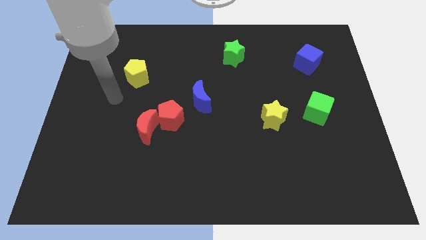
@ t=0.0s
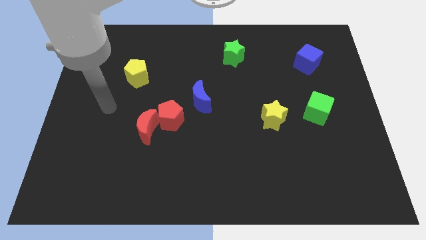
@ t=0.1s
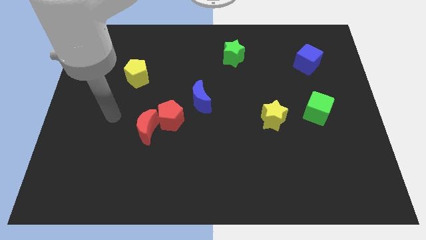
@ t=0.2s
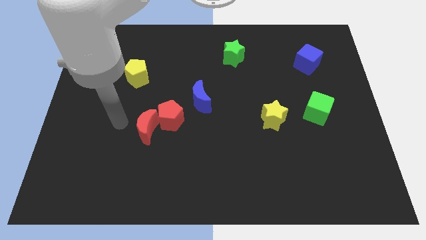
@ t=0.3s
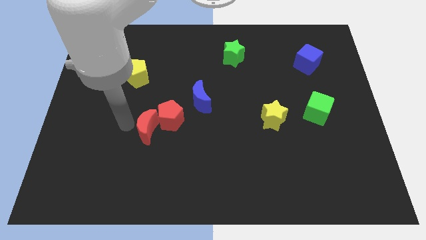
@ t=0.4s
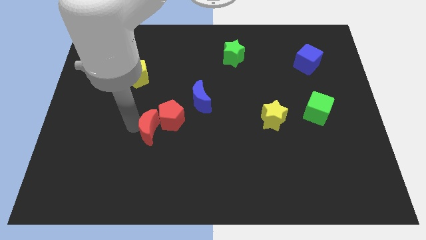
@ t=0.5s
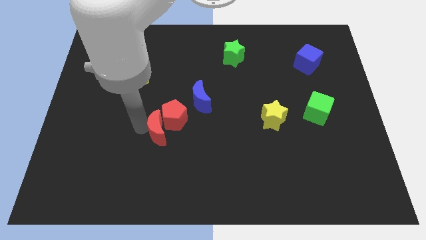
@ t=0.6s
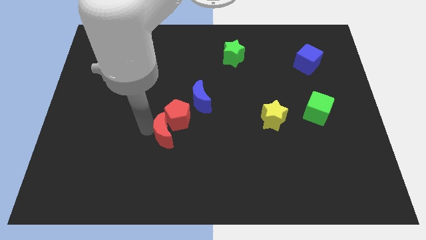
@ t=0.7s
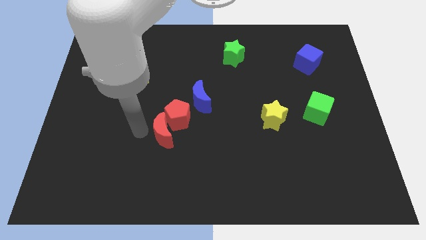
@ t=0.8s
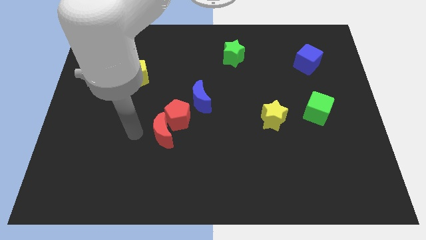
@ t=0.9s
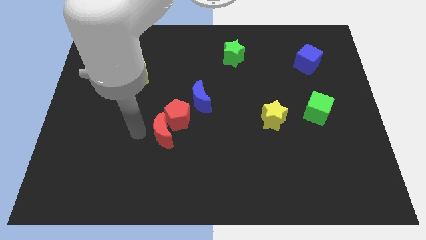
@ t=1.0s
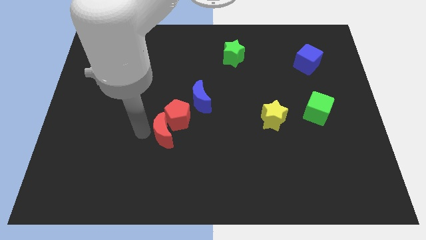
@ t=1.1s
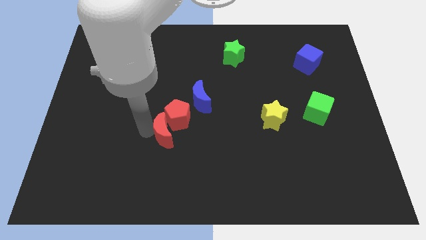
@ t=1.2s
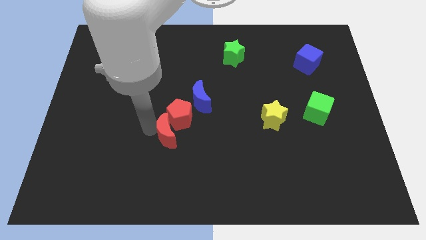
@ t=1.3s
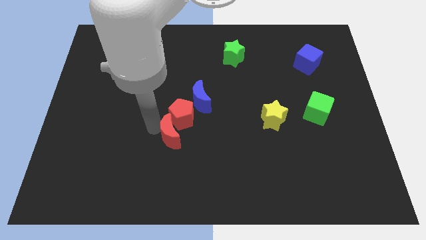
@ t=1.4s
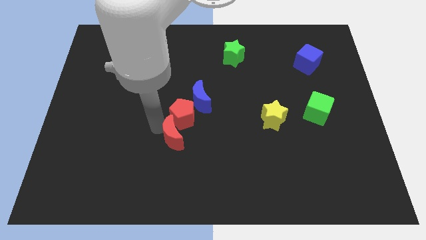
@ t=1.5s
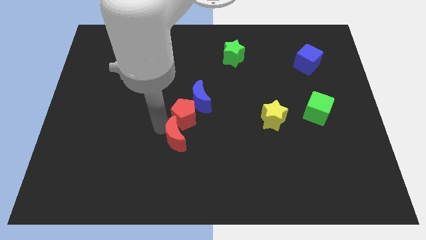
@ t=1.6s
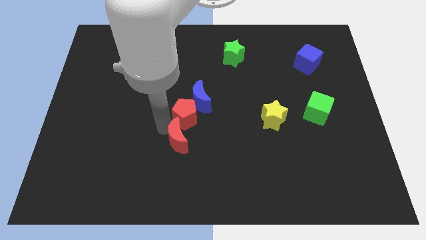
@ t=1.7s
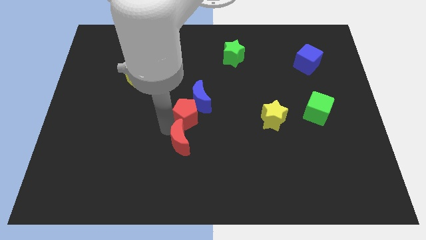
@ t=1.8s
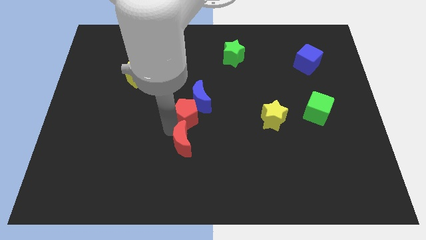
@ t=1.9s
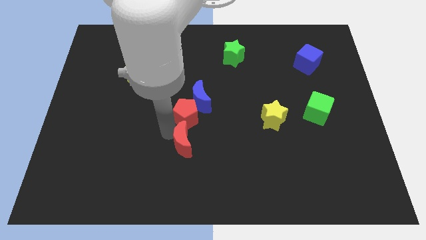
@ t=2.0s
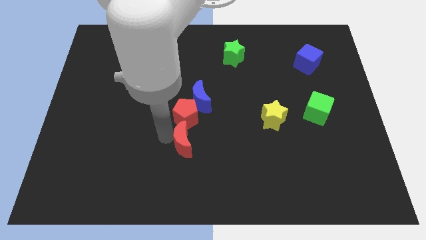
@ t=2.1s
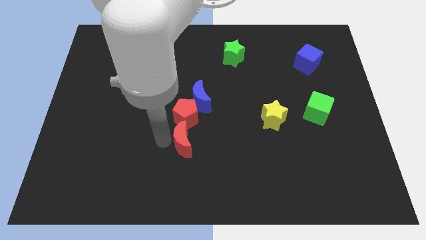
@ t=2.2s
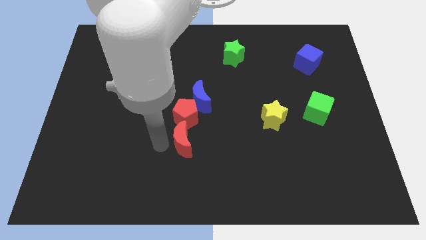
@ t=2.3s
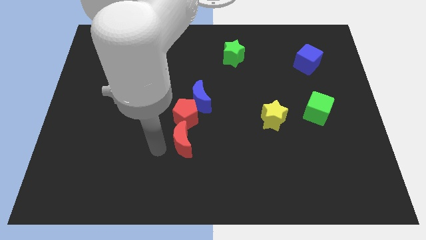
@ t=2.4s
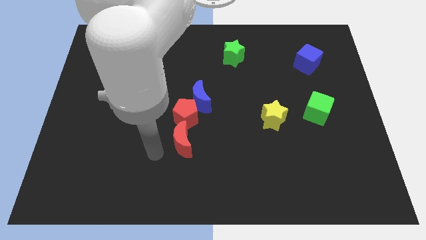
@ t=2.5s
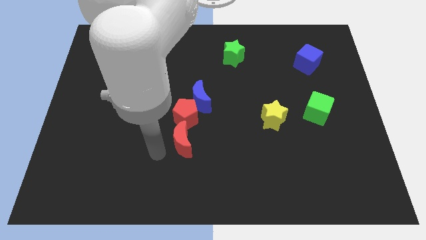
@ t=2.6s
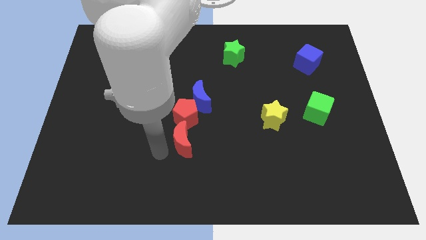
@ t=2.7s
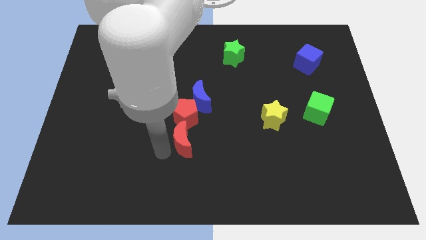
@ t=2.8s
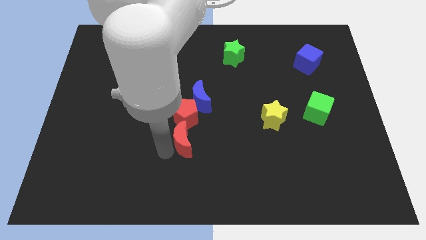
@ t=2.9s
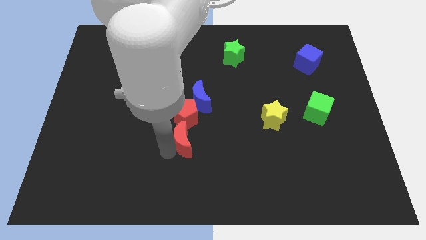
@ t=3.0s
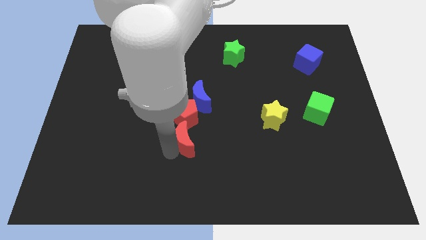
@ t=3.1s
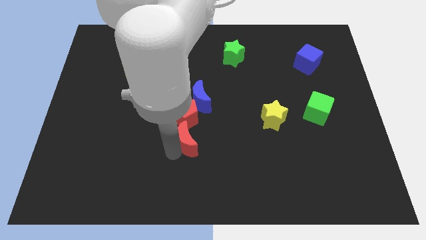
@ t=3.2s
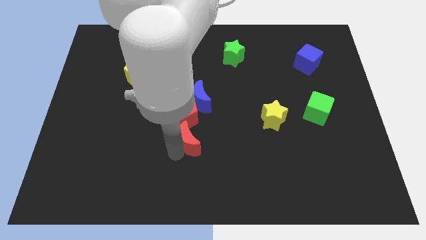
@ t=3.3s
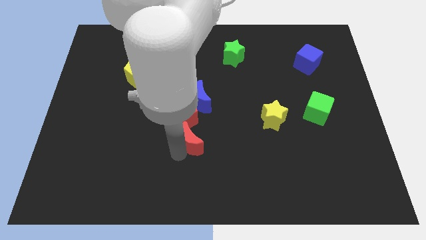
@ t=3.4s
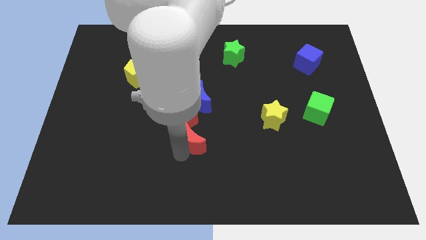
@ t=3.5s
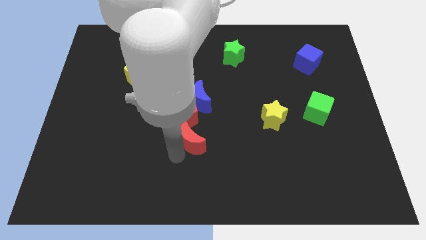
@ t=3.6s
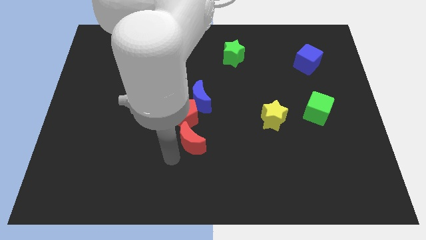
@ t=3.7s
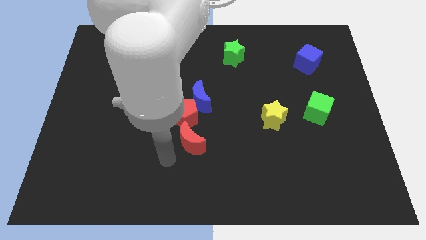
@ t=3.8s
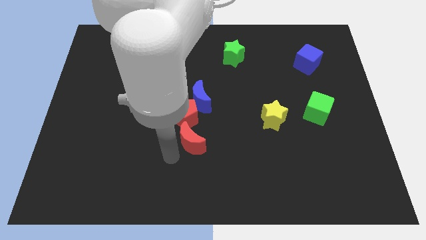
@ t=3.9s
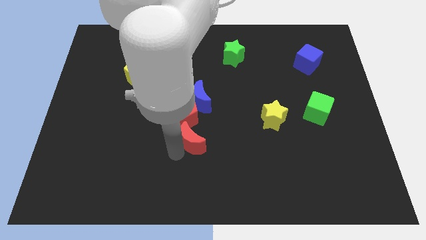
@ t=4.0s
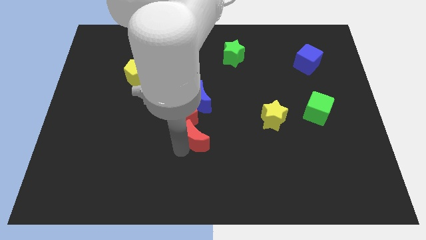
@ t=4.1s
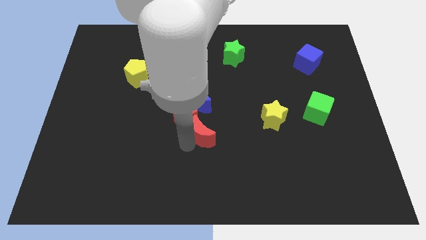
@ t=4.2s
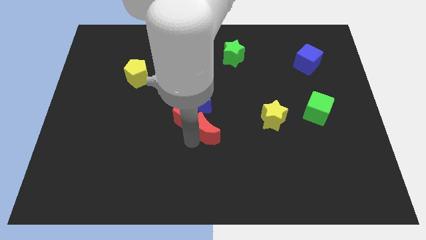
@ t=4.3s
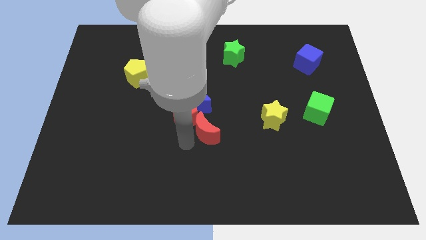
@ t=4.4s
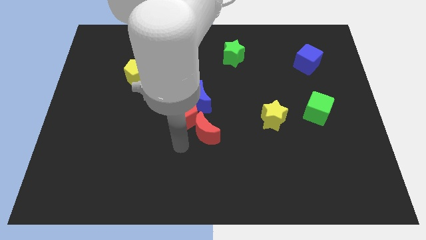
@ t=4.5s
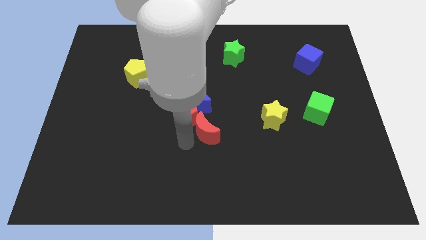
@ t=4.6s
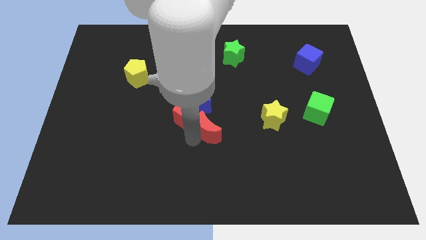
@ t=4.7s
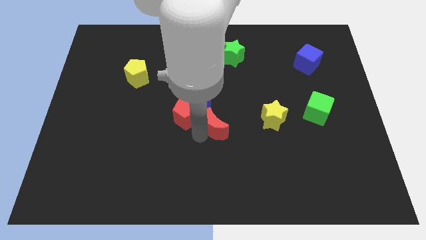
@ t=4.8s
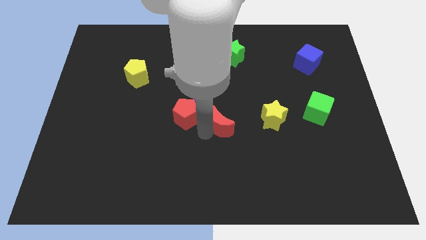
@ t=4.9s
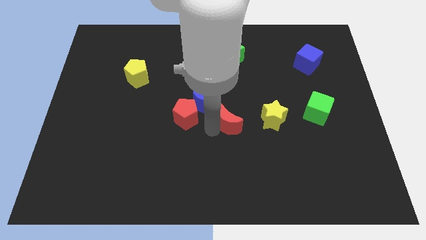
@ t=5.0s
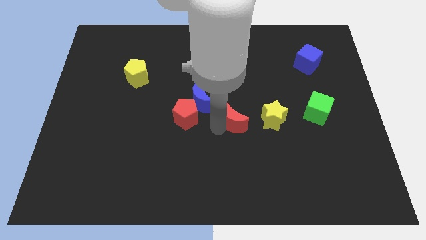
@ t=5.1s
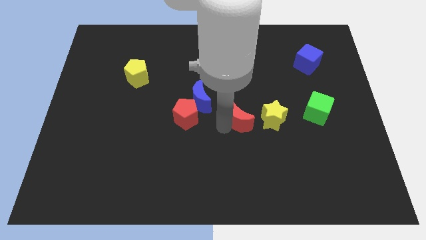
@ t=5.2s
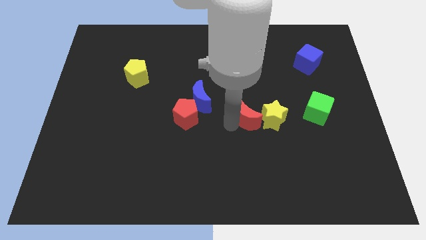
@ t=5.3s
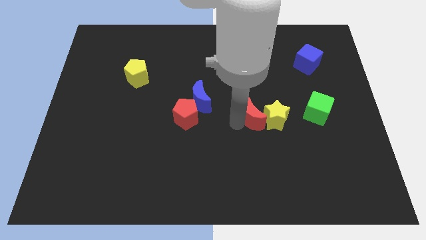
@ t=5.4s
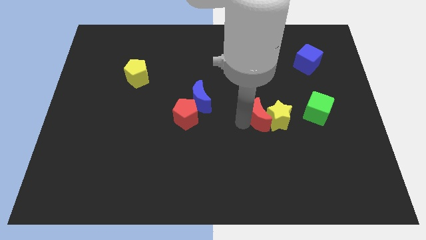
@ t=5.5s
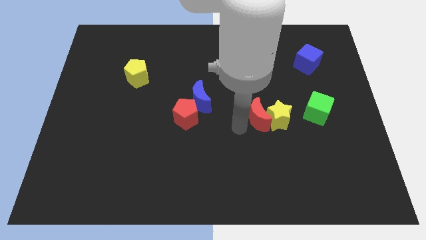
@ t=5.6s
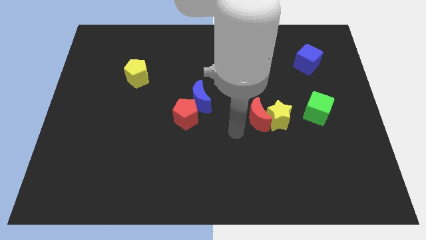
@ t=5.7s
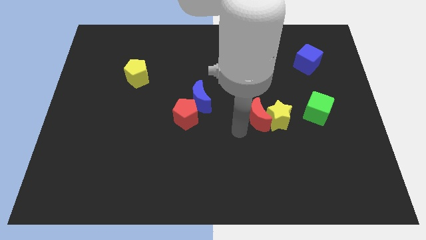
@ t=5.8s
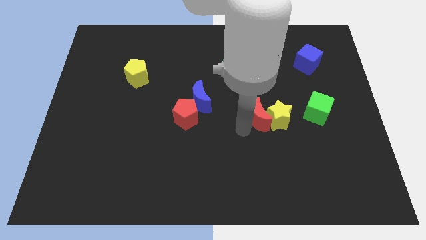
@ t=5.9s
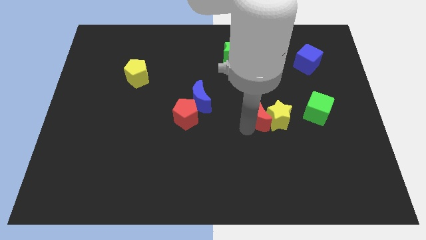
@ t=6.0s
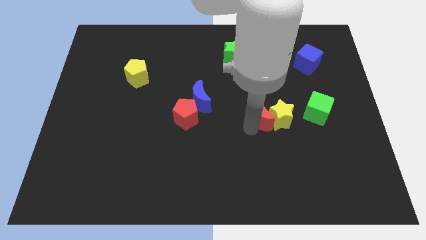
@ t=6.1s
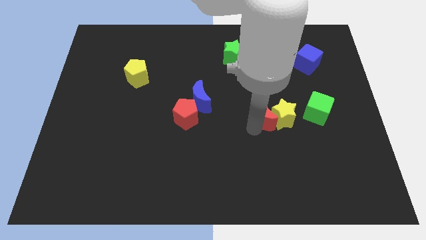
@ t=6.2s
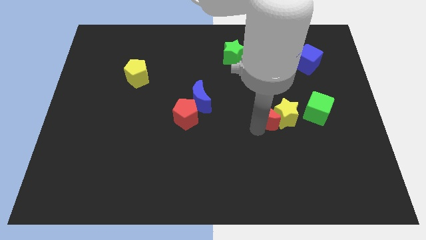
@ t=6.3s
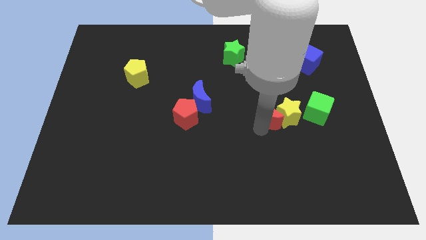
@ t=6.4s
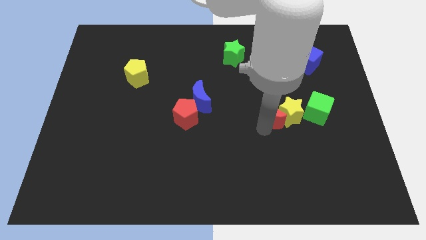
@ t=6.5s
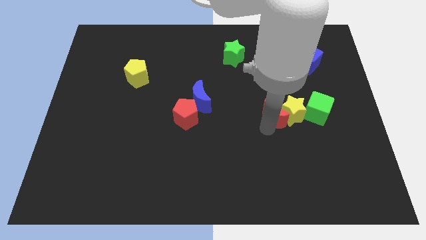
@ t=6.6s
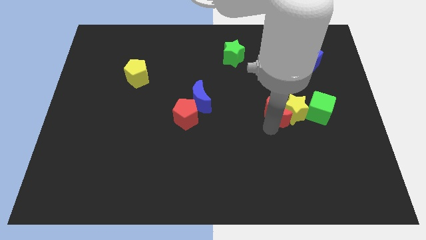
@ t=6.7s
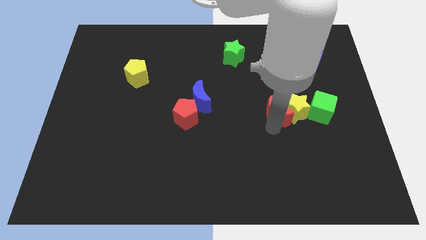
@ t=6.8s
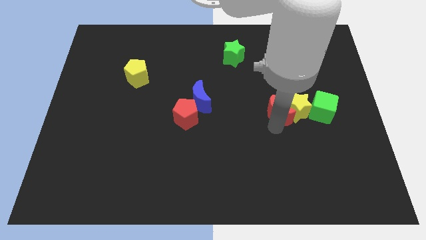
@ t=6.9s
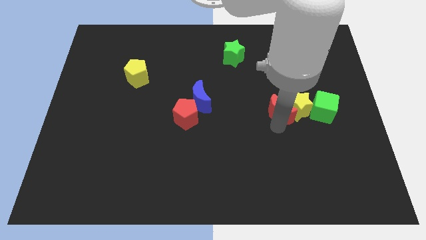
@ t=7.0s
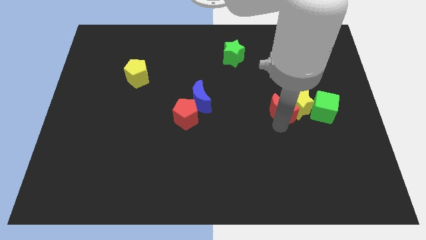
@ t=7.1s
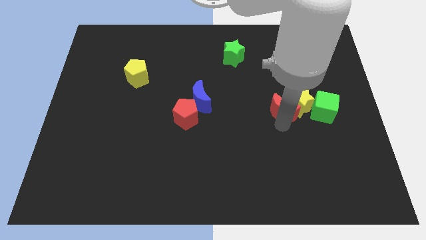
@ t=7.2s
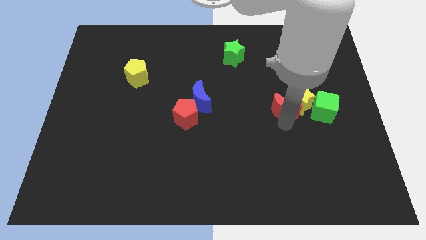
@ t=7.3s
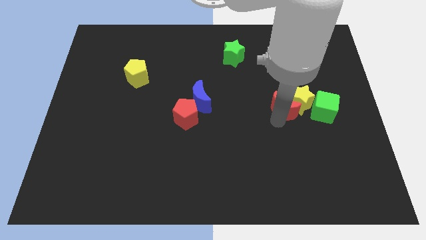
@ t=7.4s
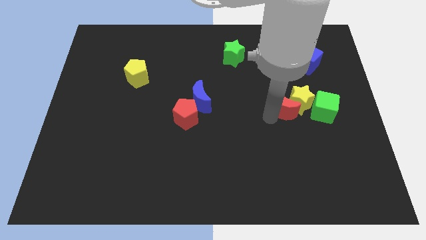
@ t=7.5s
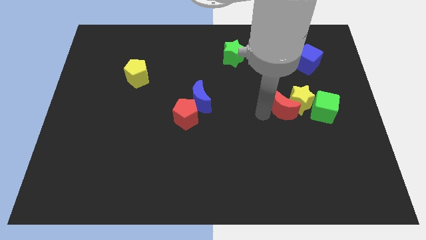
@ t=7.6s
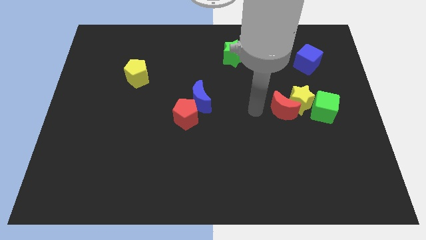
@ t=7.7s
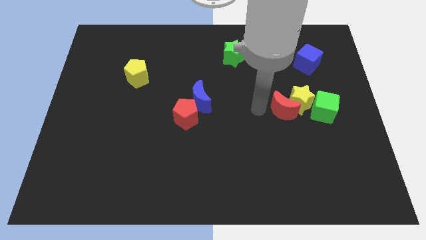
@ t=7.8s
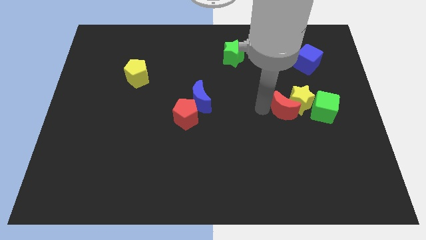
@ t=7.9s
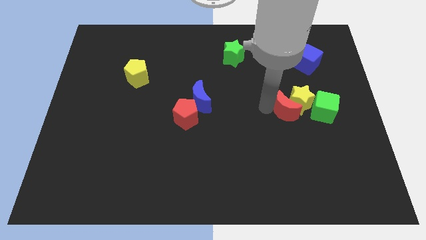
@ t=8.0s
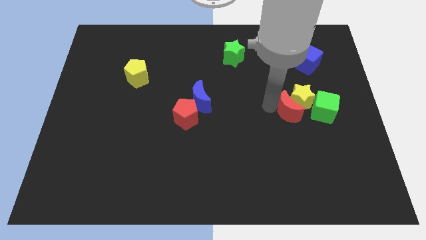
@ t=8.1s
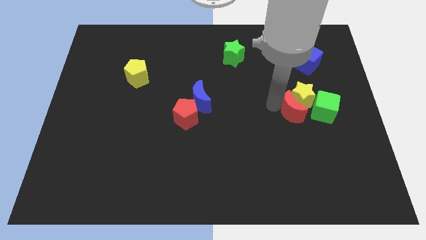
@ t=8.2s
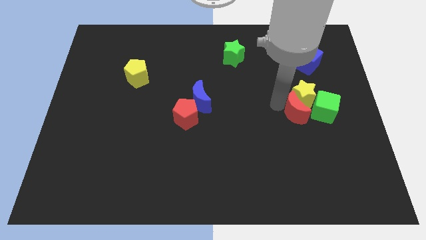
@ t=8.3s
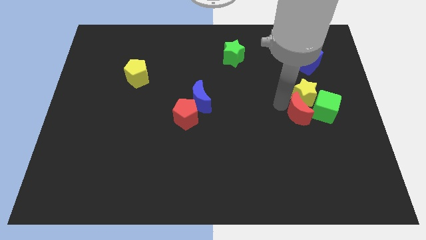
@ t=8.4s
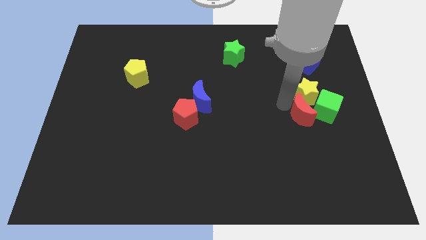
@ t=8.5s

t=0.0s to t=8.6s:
move the red moon next to the green cube
